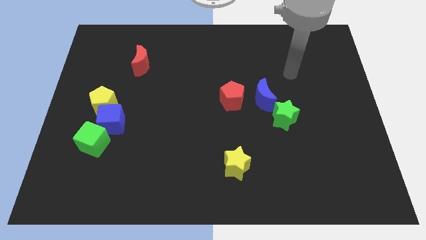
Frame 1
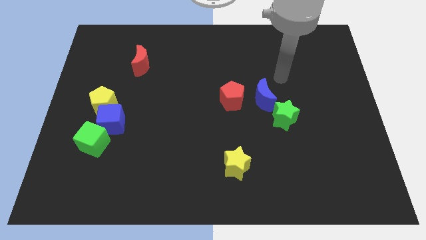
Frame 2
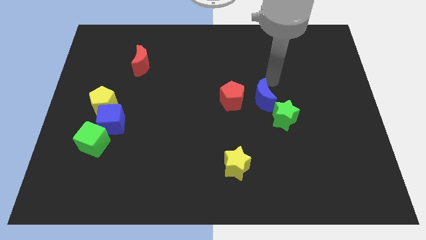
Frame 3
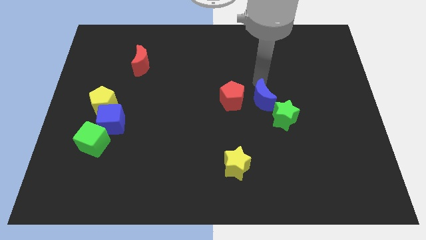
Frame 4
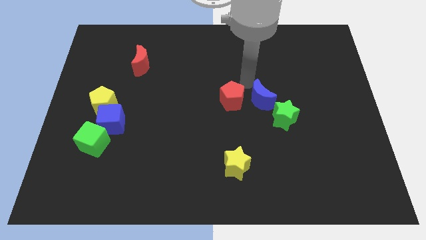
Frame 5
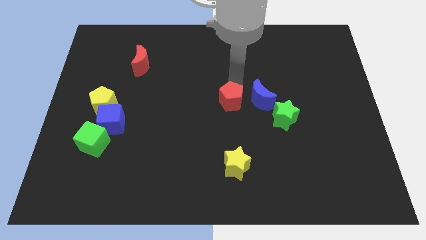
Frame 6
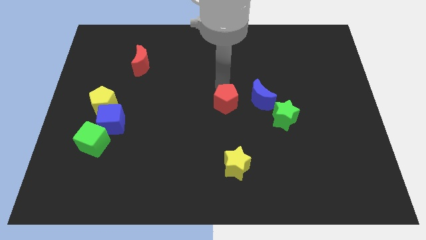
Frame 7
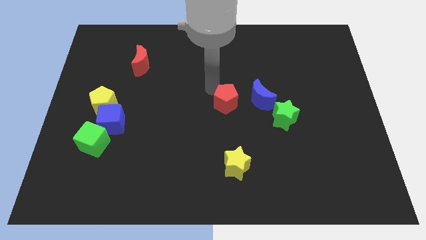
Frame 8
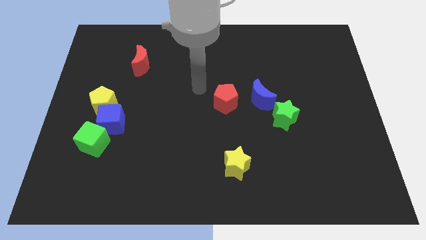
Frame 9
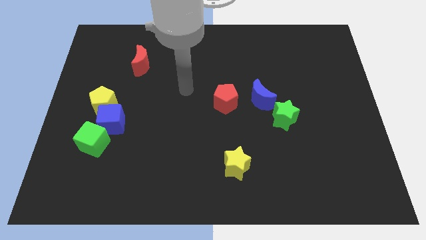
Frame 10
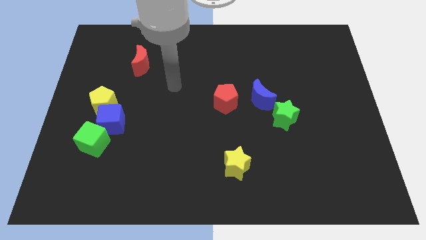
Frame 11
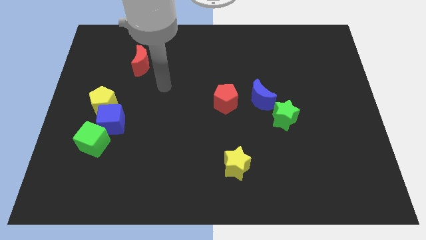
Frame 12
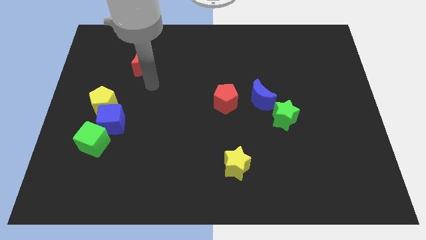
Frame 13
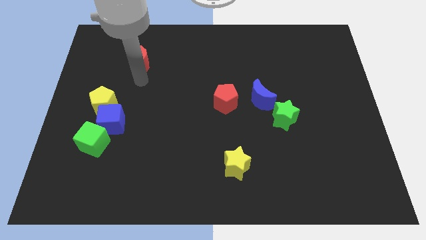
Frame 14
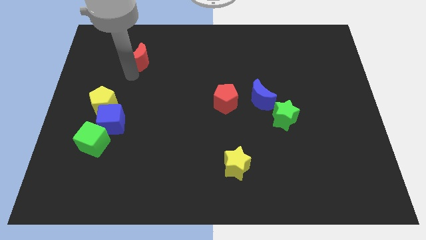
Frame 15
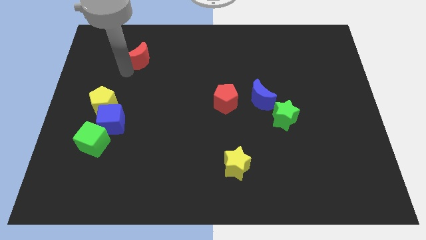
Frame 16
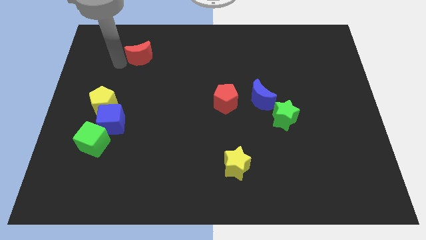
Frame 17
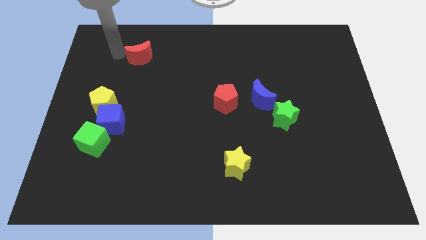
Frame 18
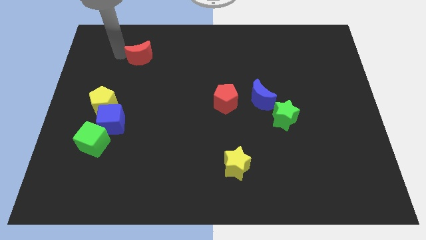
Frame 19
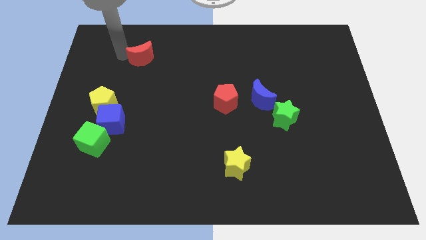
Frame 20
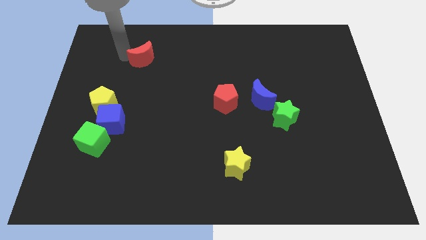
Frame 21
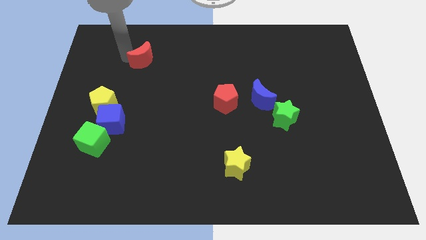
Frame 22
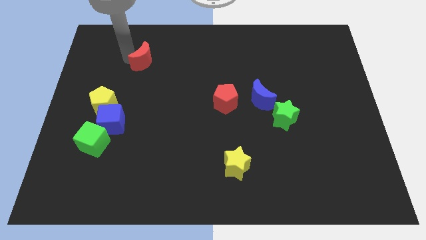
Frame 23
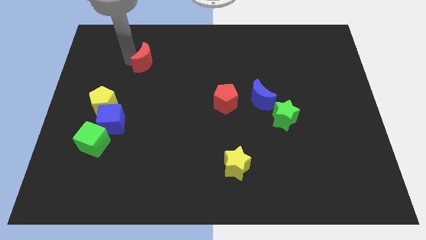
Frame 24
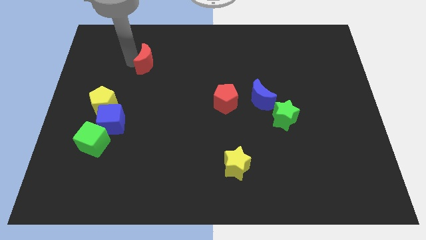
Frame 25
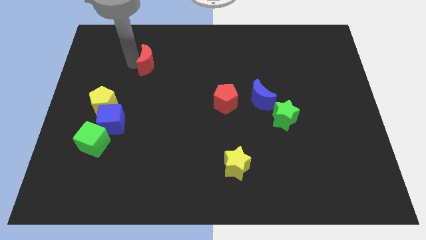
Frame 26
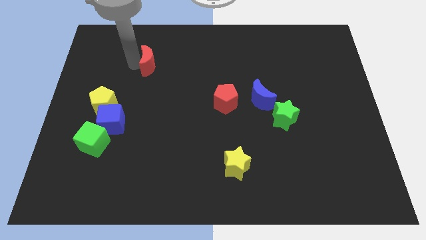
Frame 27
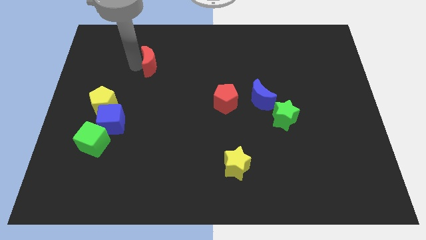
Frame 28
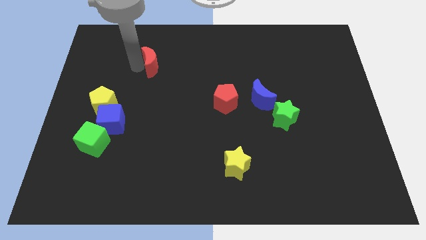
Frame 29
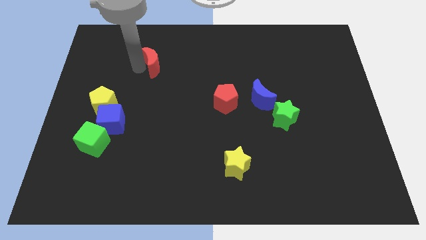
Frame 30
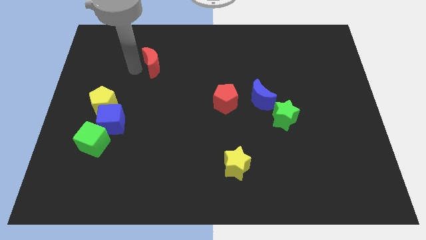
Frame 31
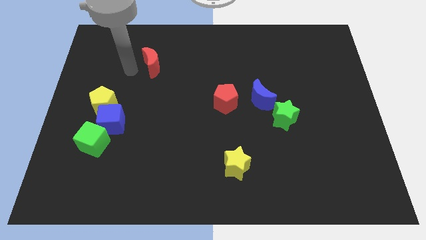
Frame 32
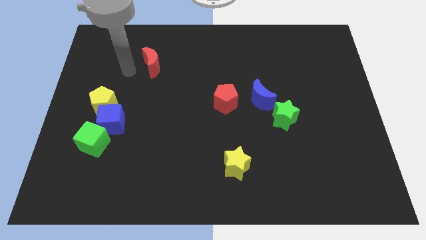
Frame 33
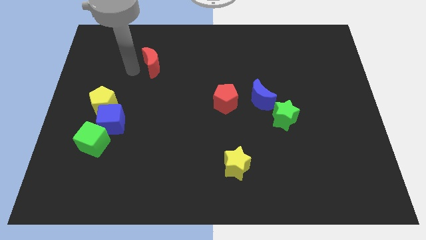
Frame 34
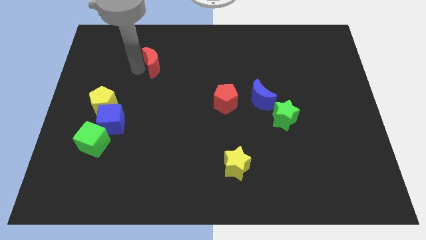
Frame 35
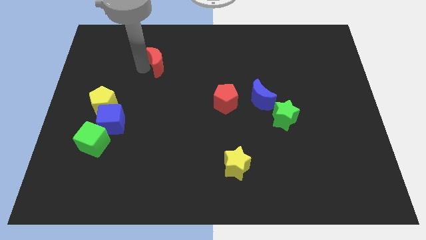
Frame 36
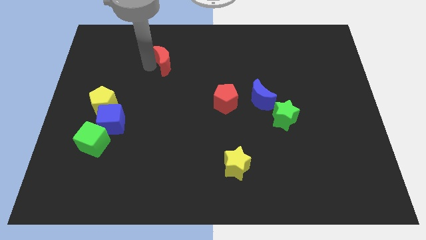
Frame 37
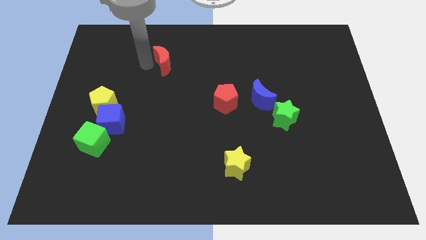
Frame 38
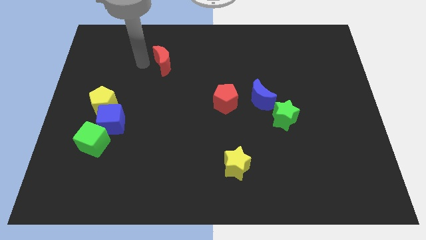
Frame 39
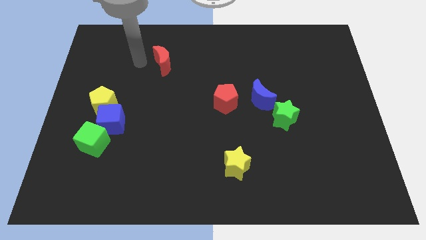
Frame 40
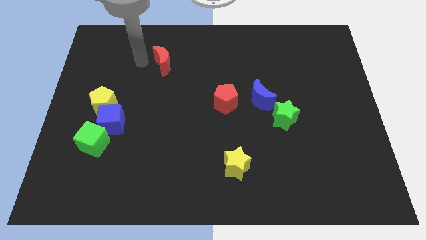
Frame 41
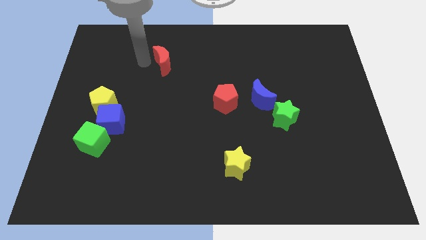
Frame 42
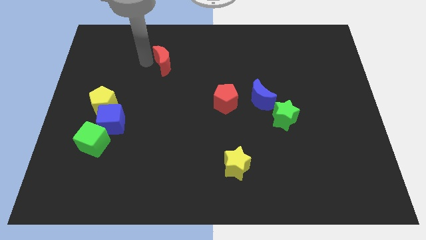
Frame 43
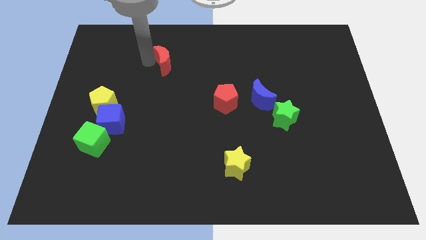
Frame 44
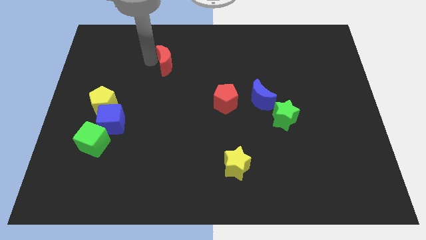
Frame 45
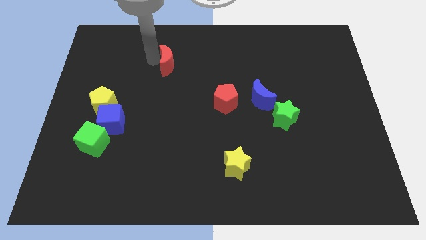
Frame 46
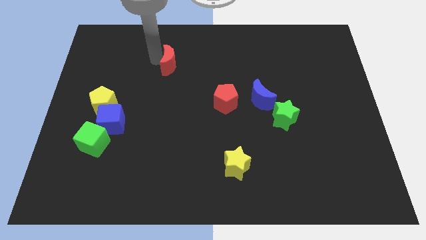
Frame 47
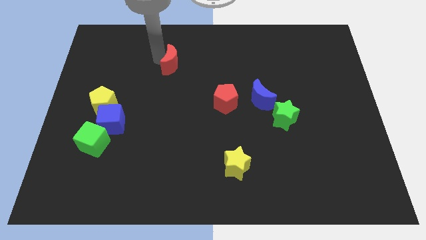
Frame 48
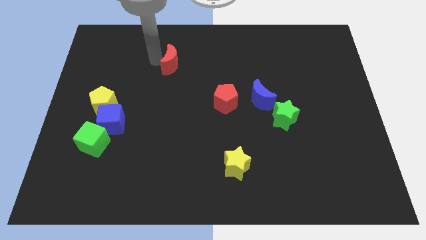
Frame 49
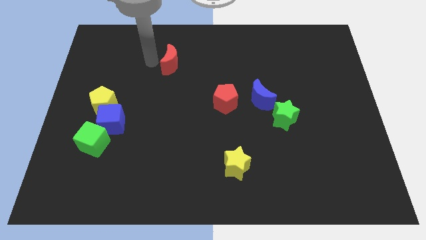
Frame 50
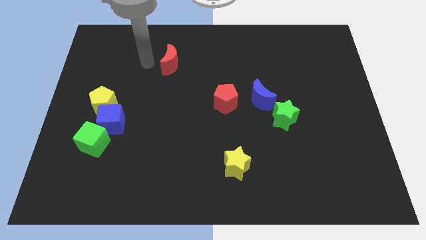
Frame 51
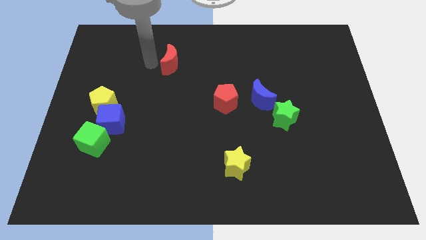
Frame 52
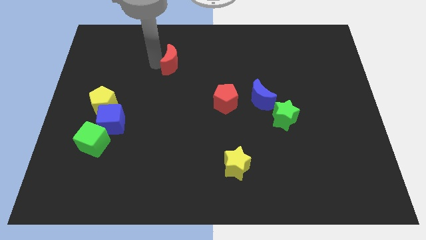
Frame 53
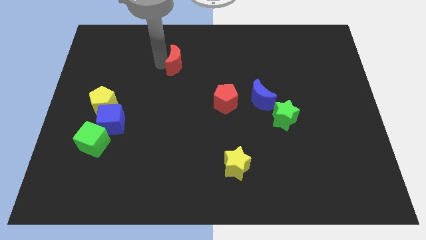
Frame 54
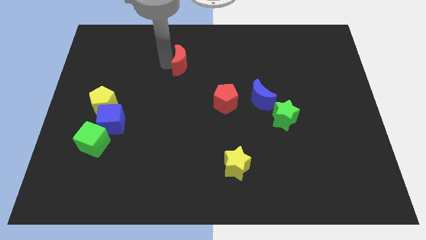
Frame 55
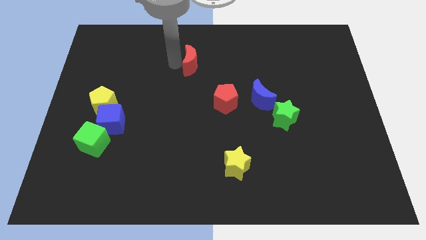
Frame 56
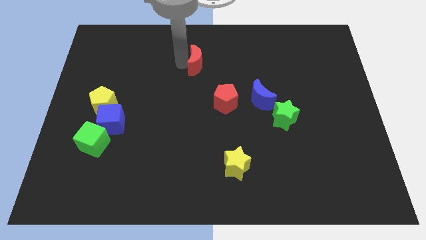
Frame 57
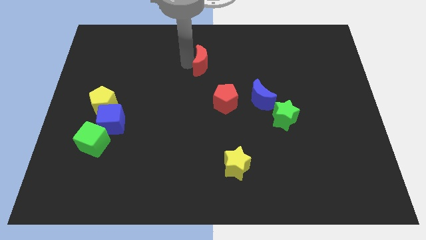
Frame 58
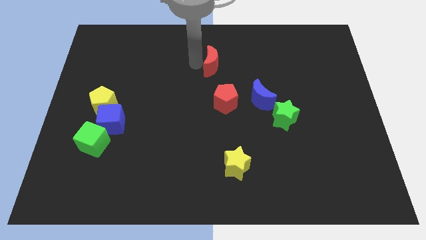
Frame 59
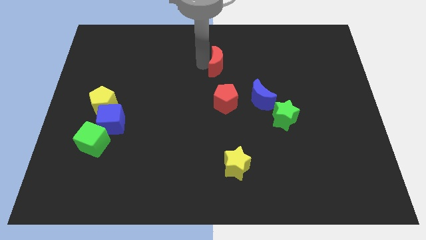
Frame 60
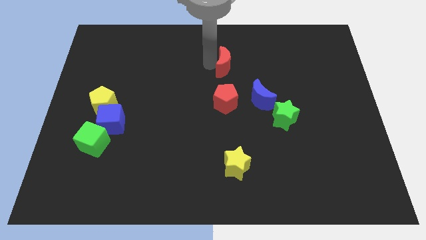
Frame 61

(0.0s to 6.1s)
slide the red moon to the right

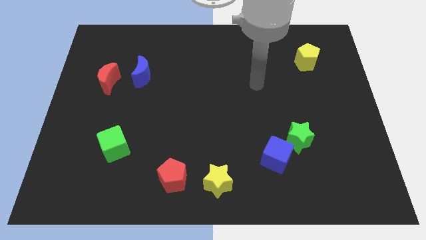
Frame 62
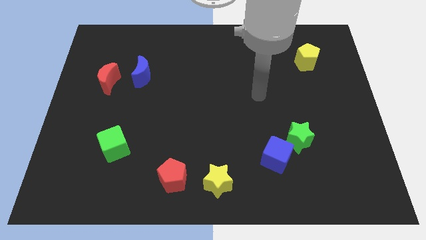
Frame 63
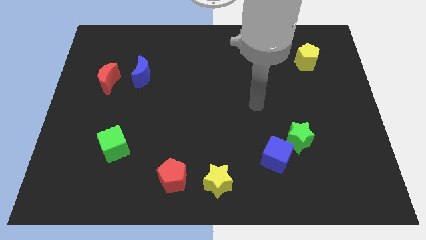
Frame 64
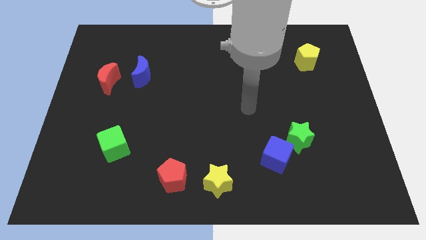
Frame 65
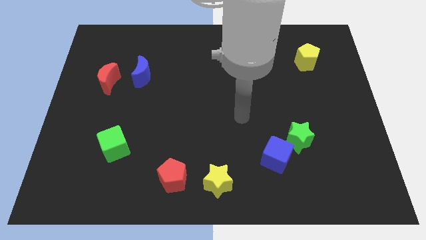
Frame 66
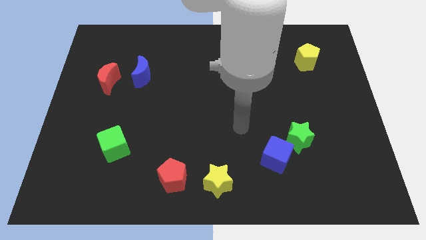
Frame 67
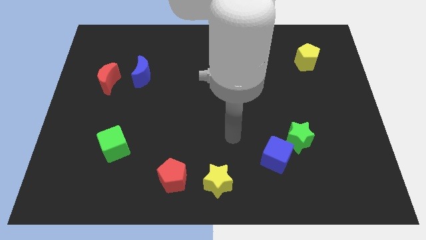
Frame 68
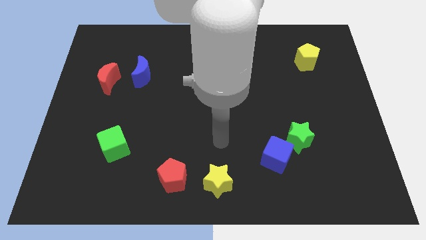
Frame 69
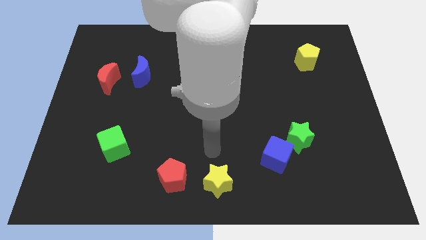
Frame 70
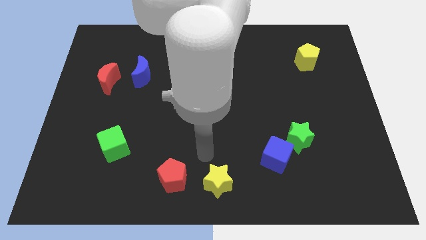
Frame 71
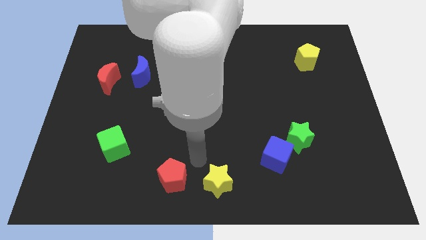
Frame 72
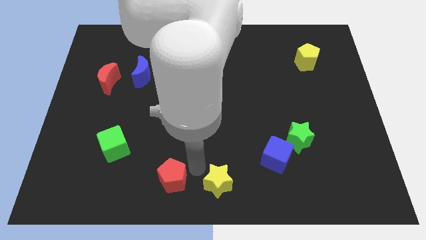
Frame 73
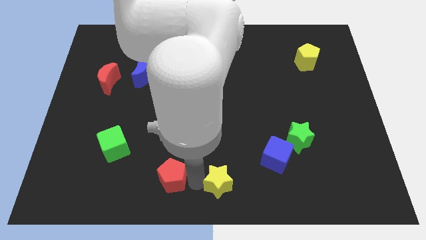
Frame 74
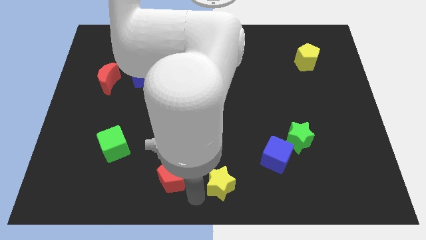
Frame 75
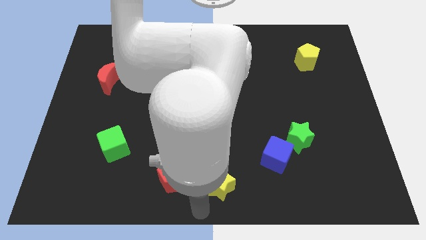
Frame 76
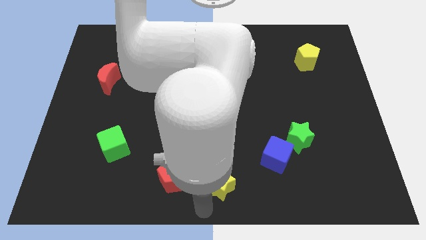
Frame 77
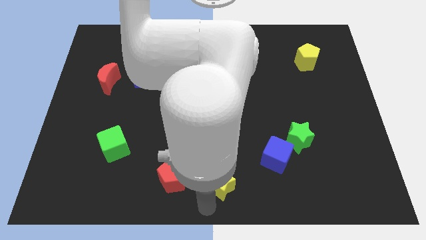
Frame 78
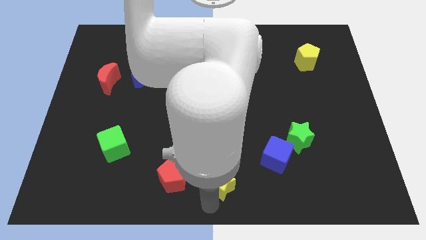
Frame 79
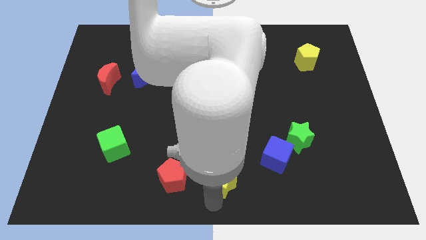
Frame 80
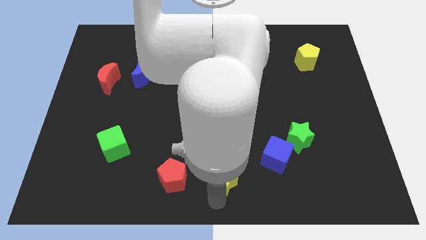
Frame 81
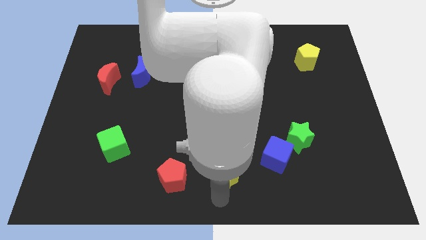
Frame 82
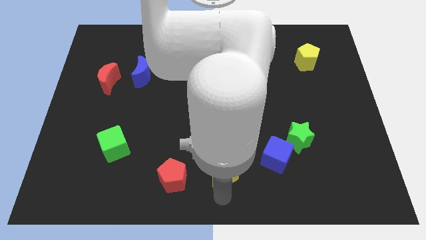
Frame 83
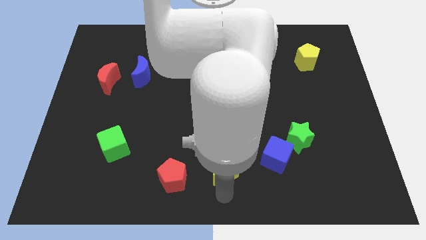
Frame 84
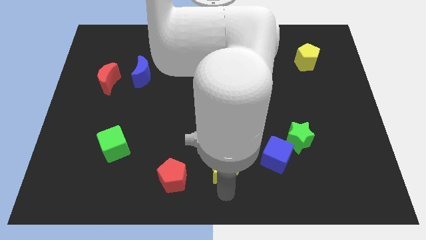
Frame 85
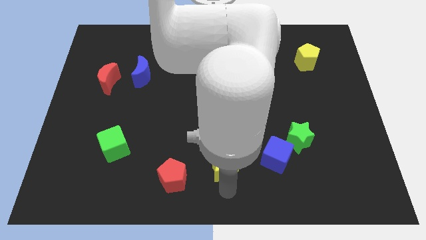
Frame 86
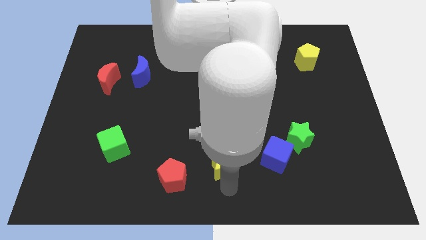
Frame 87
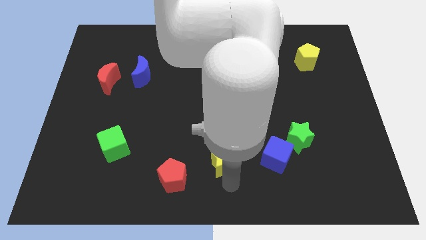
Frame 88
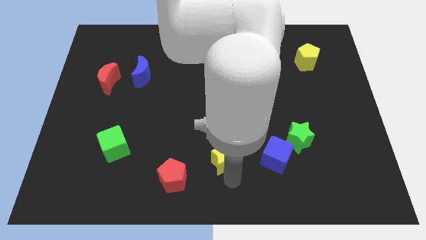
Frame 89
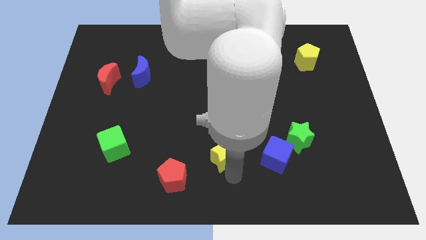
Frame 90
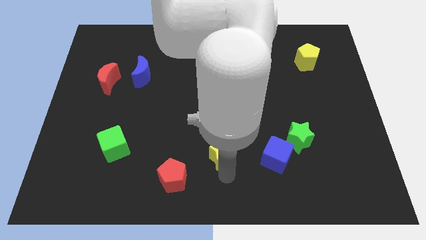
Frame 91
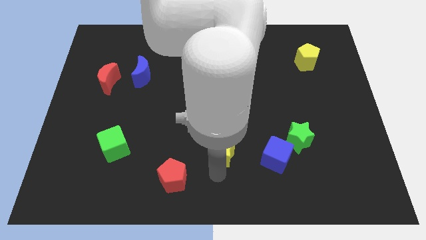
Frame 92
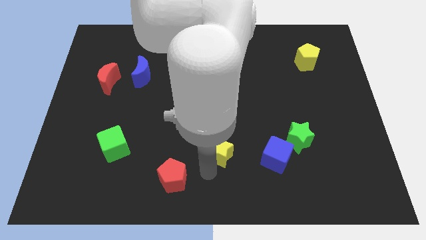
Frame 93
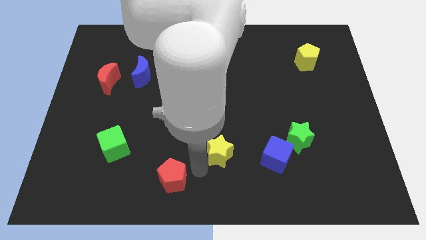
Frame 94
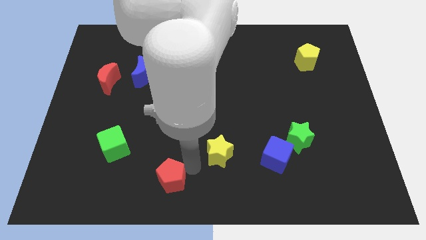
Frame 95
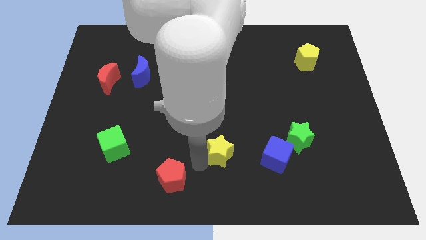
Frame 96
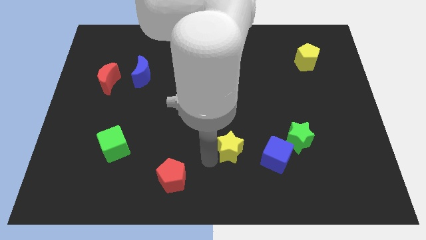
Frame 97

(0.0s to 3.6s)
push the yellow star upwards and to the right a little bit
